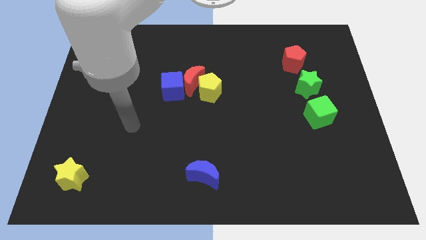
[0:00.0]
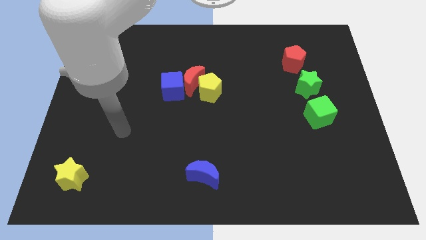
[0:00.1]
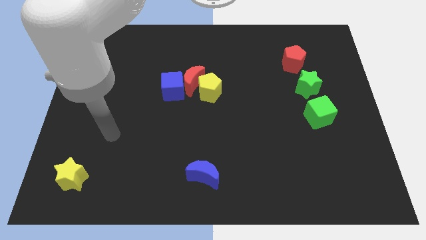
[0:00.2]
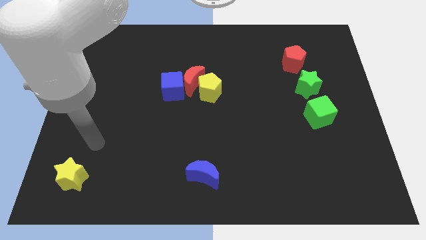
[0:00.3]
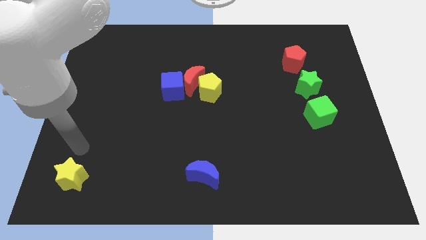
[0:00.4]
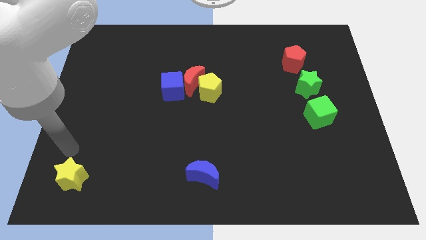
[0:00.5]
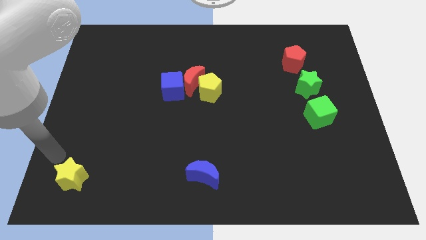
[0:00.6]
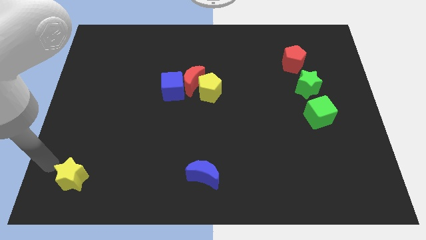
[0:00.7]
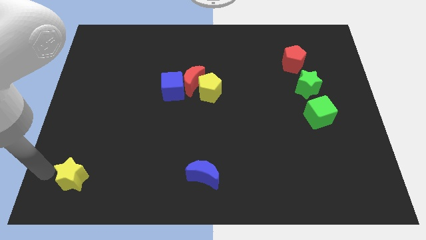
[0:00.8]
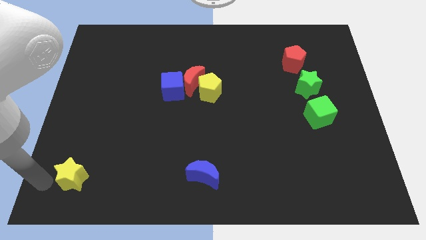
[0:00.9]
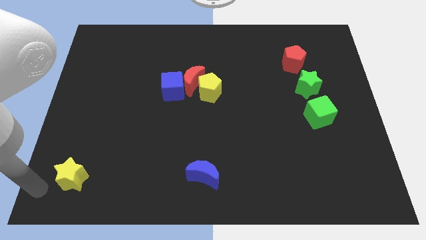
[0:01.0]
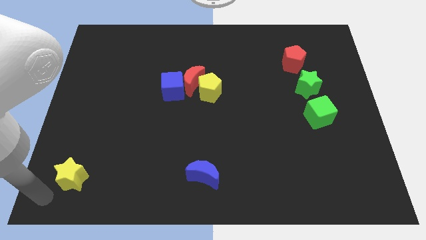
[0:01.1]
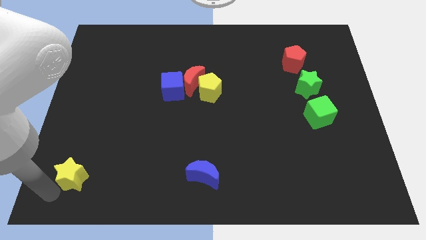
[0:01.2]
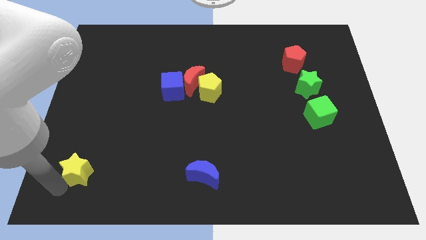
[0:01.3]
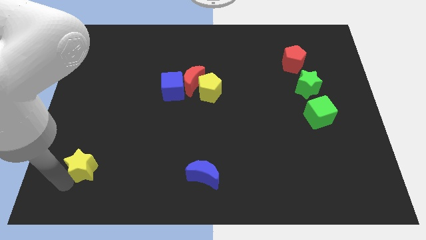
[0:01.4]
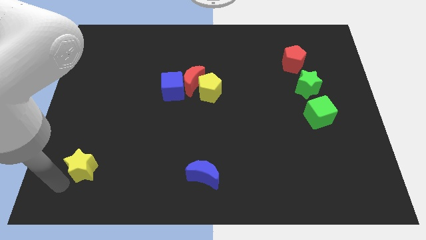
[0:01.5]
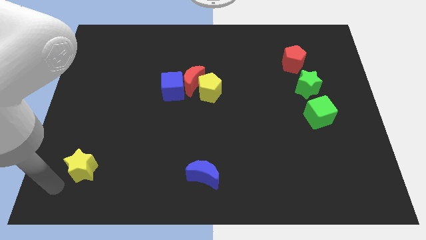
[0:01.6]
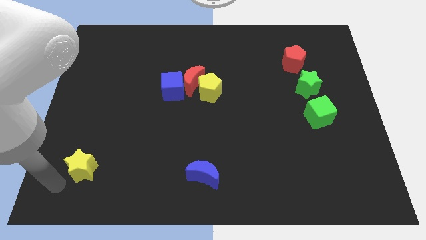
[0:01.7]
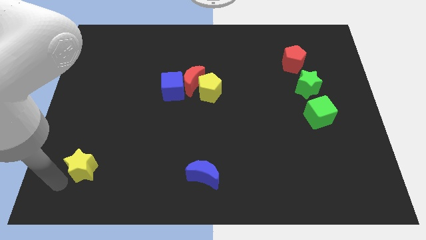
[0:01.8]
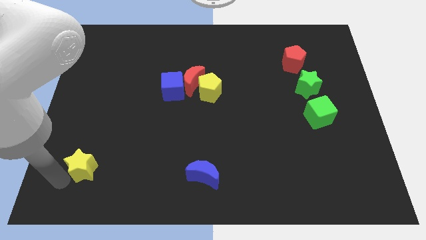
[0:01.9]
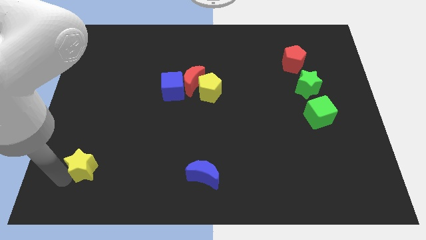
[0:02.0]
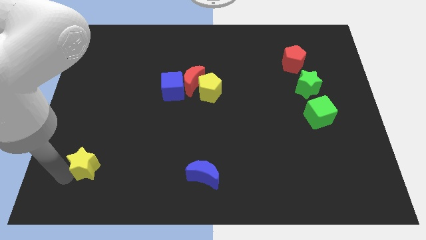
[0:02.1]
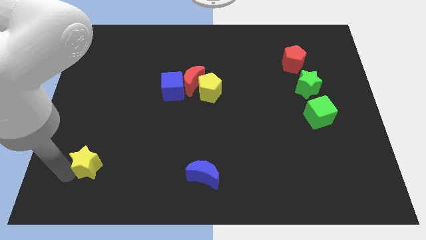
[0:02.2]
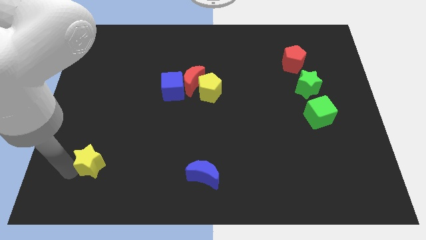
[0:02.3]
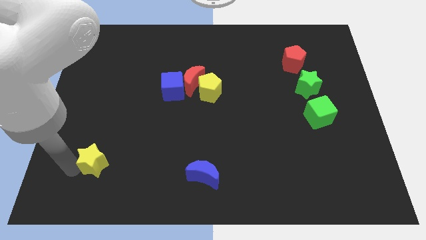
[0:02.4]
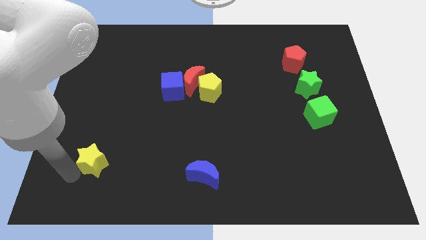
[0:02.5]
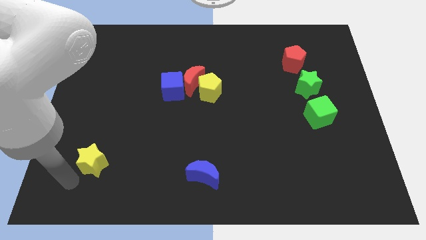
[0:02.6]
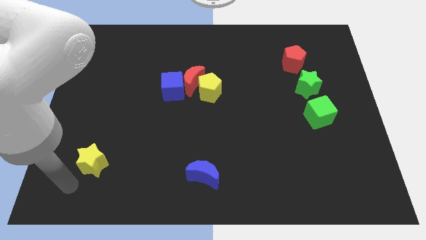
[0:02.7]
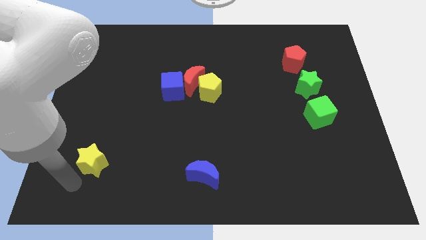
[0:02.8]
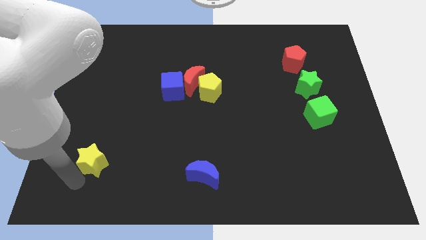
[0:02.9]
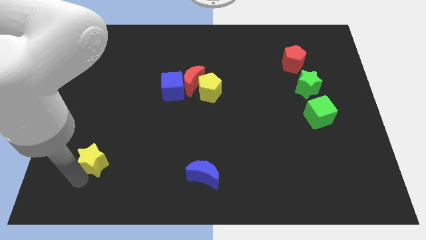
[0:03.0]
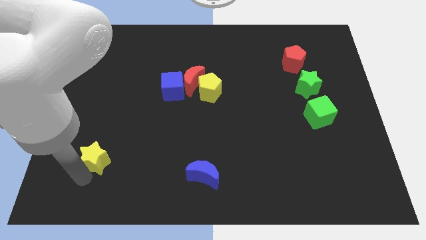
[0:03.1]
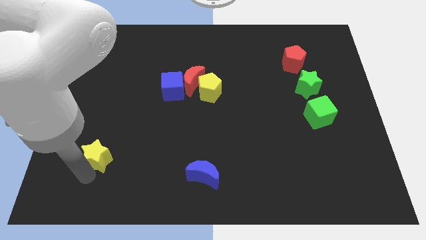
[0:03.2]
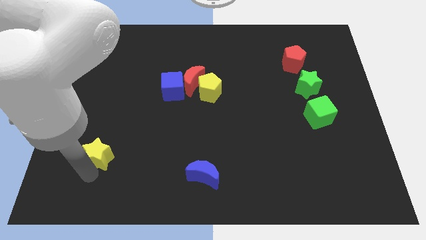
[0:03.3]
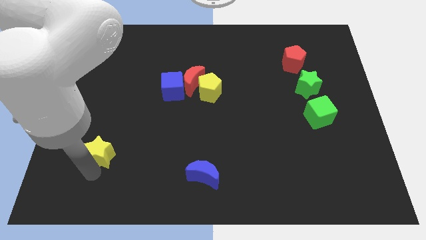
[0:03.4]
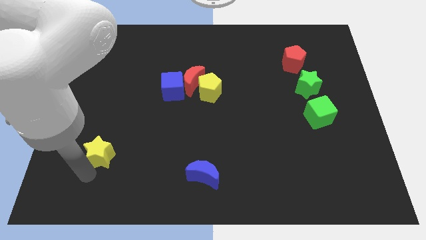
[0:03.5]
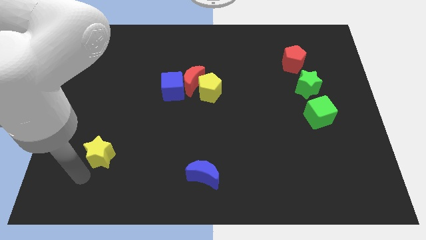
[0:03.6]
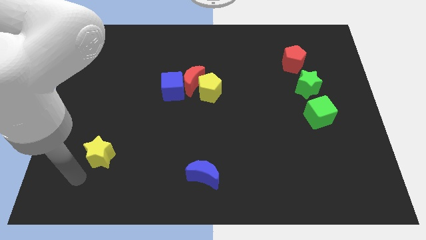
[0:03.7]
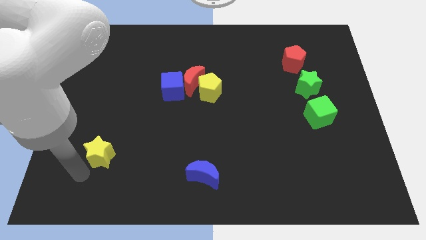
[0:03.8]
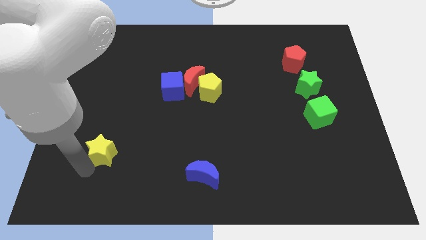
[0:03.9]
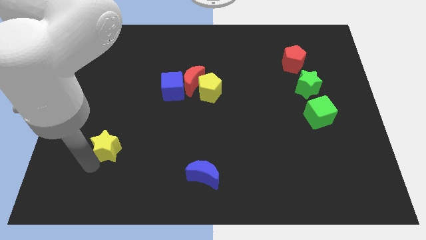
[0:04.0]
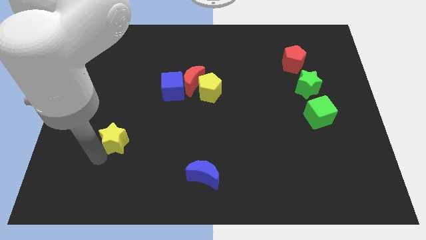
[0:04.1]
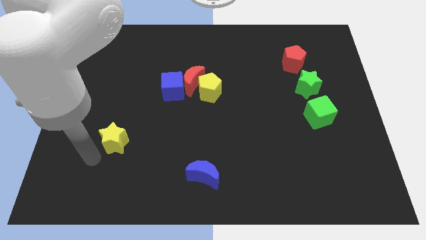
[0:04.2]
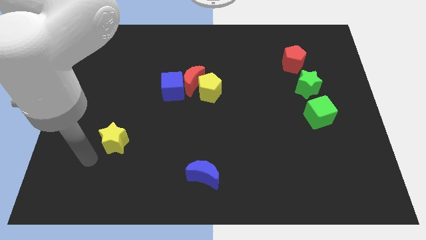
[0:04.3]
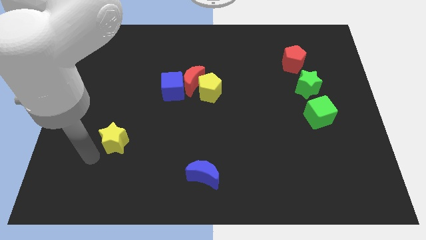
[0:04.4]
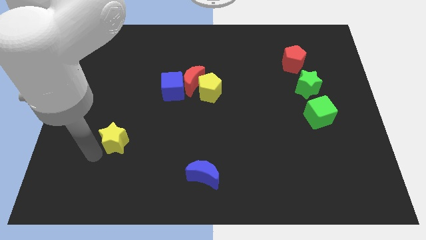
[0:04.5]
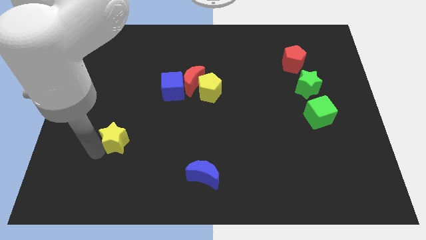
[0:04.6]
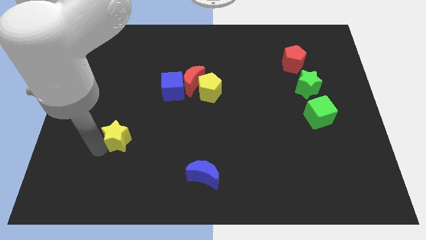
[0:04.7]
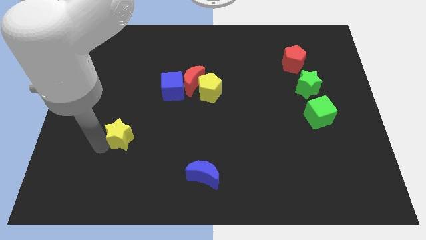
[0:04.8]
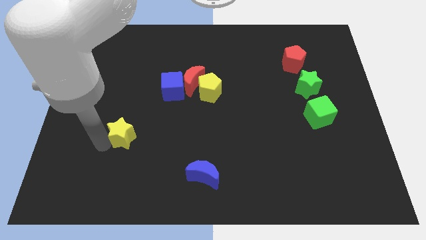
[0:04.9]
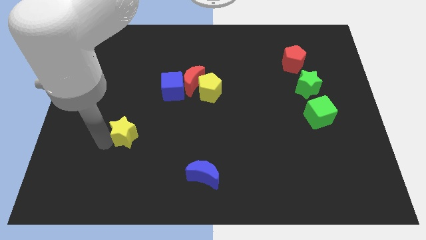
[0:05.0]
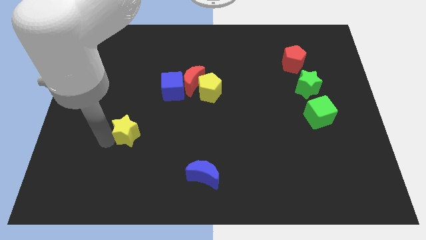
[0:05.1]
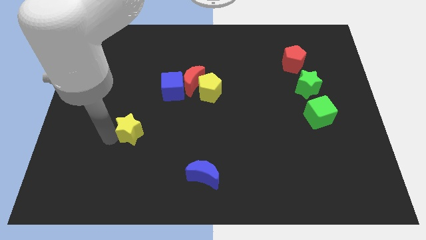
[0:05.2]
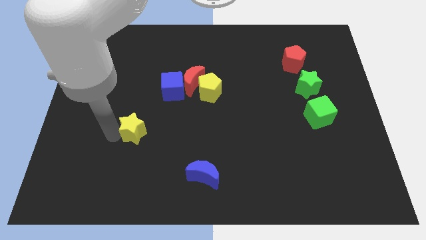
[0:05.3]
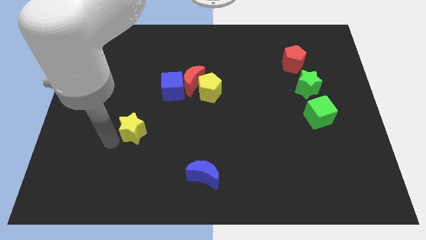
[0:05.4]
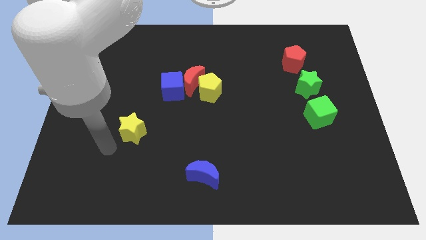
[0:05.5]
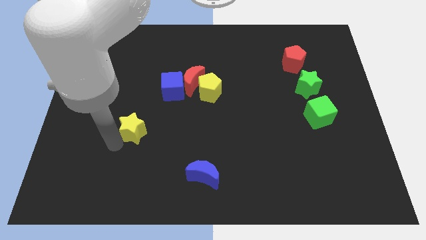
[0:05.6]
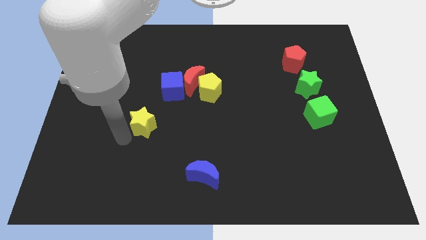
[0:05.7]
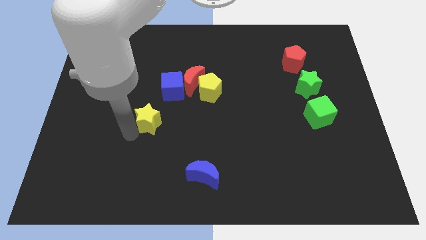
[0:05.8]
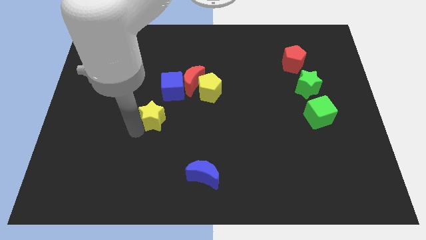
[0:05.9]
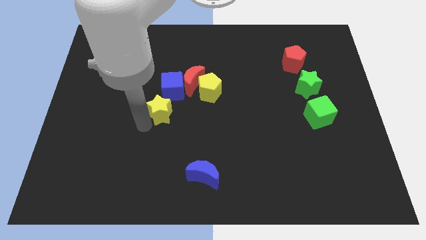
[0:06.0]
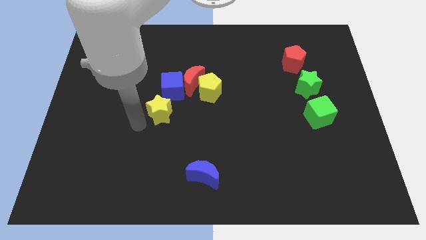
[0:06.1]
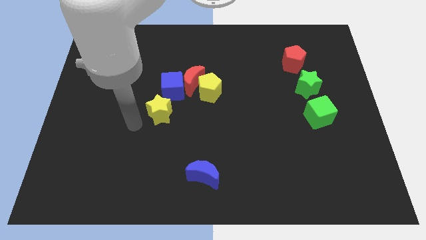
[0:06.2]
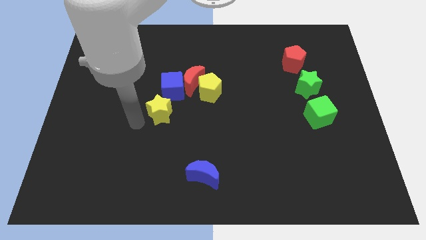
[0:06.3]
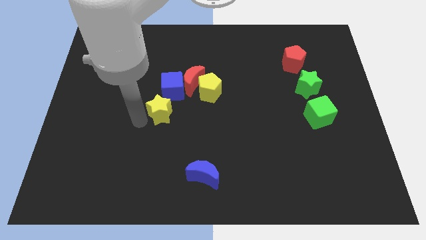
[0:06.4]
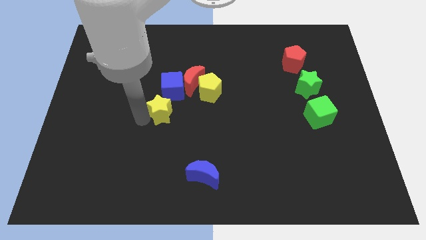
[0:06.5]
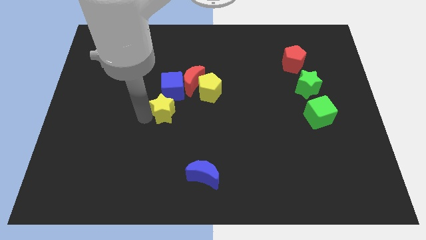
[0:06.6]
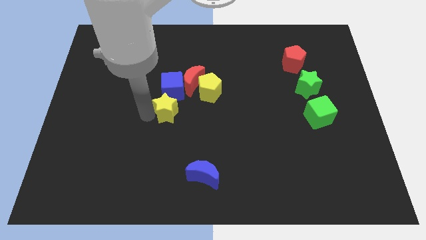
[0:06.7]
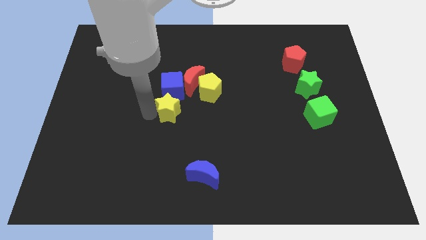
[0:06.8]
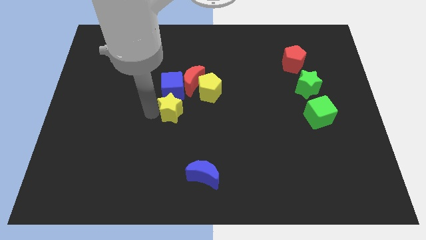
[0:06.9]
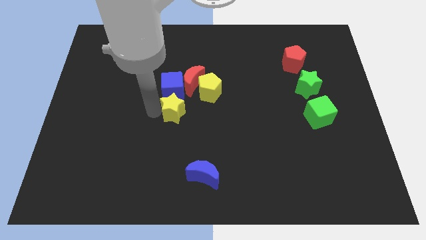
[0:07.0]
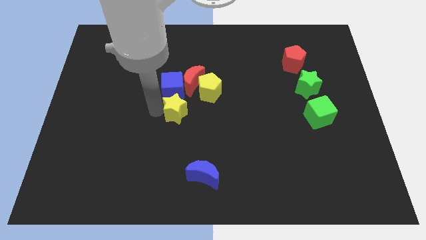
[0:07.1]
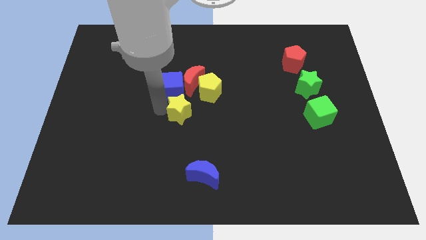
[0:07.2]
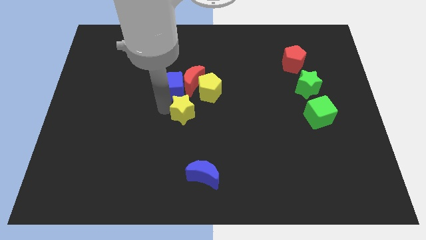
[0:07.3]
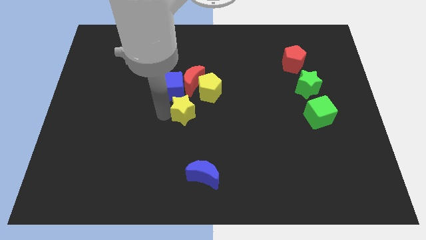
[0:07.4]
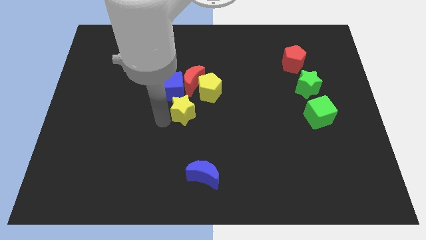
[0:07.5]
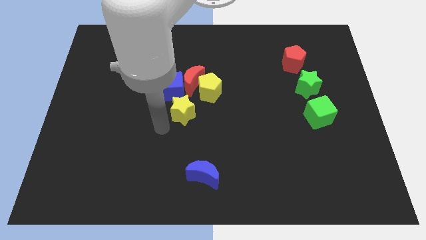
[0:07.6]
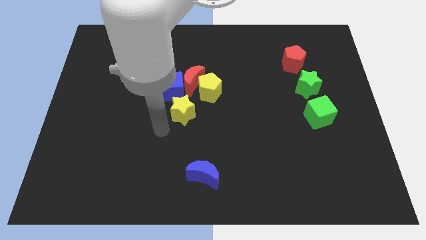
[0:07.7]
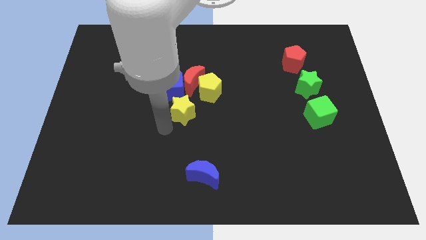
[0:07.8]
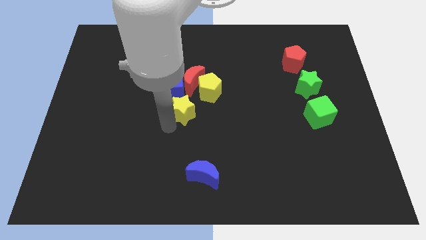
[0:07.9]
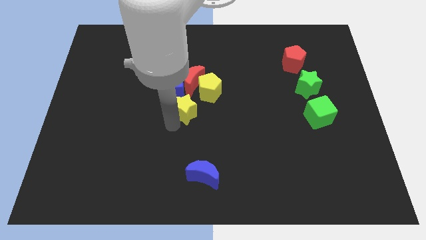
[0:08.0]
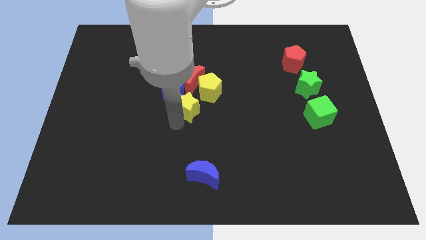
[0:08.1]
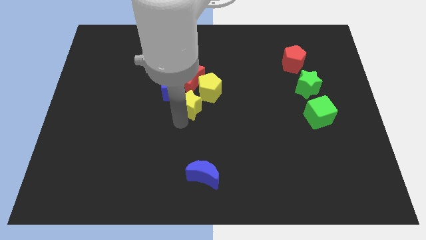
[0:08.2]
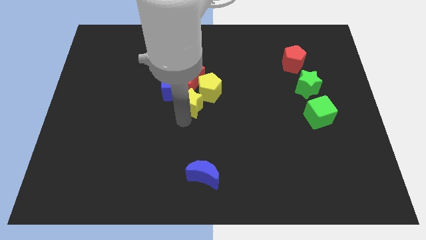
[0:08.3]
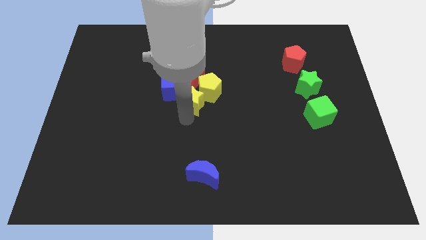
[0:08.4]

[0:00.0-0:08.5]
move the yellow star to the yellow pentagon
